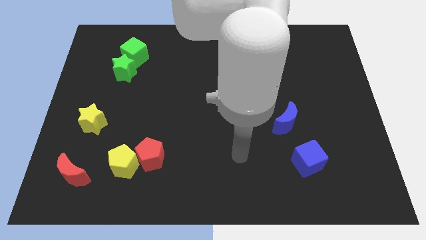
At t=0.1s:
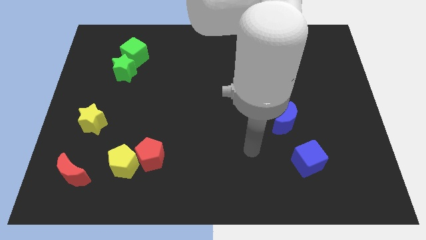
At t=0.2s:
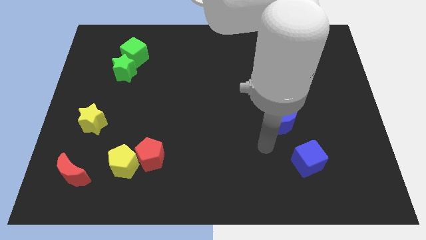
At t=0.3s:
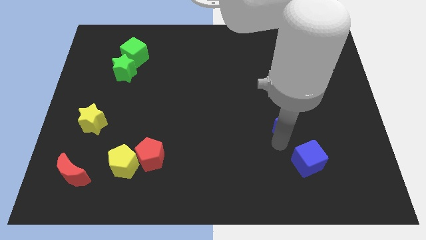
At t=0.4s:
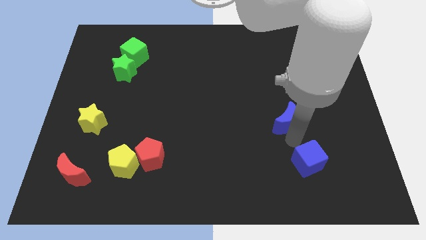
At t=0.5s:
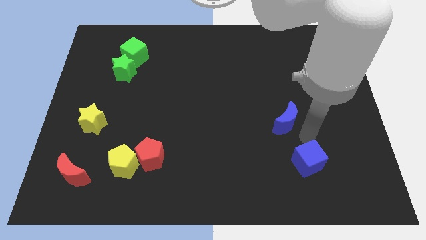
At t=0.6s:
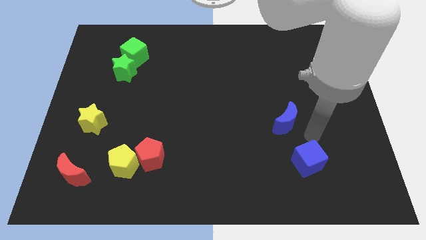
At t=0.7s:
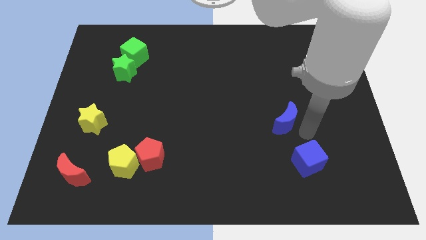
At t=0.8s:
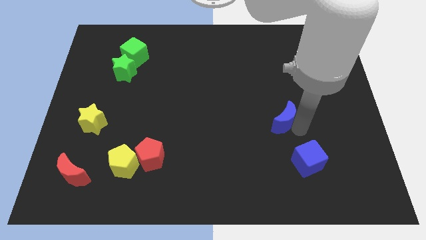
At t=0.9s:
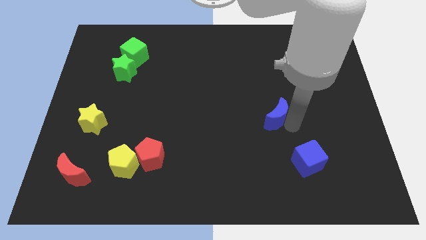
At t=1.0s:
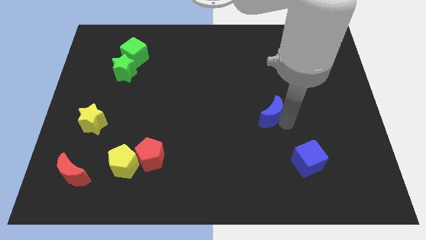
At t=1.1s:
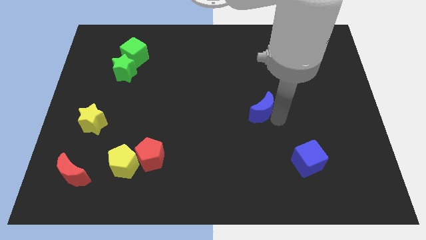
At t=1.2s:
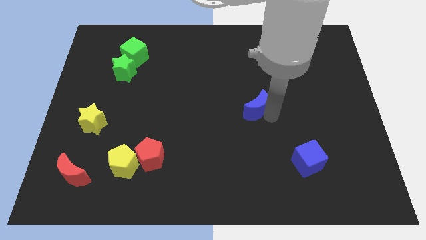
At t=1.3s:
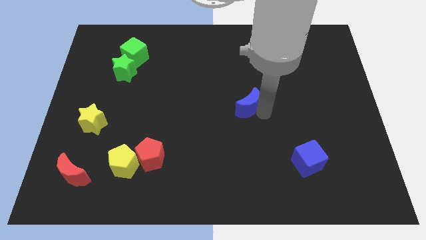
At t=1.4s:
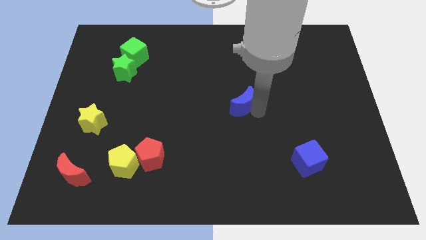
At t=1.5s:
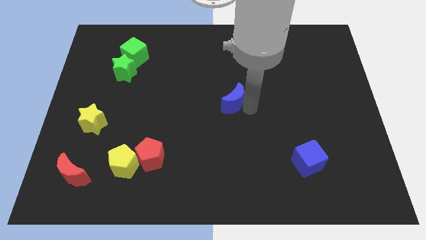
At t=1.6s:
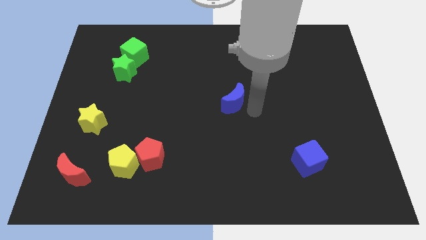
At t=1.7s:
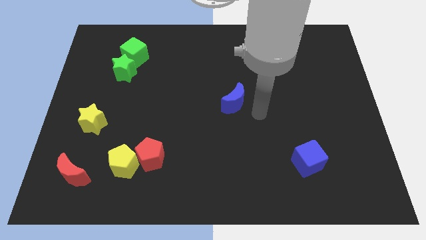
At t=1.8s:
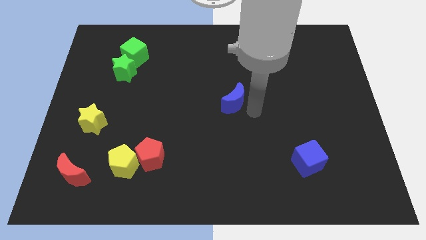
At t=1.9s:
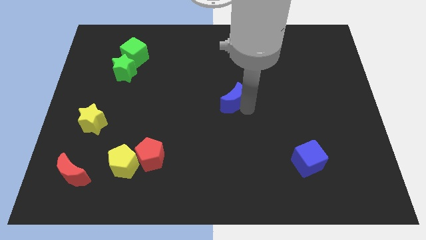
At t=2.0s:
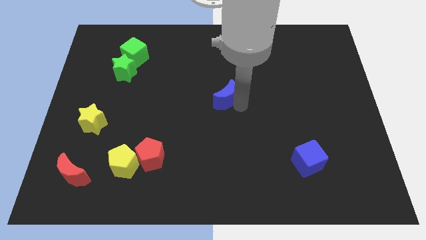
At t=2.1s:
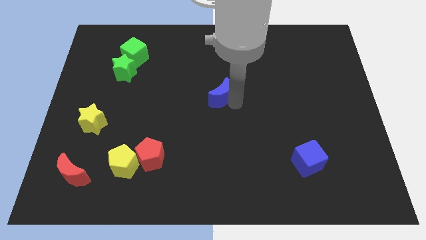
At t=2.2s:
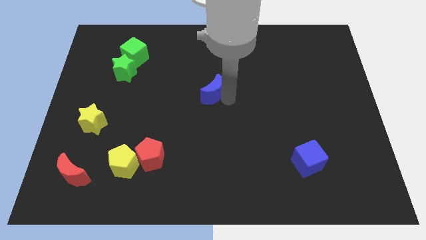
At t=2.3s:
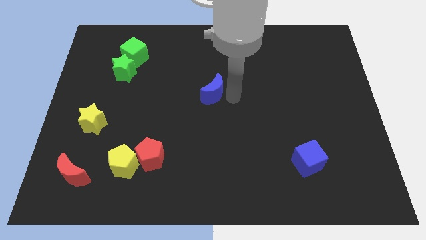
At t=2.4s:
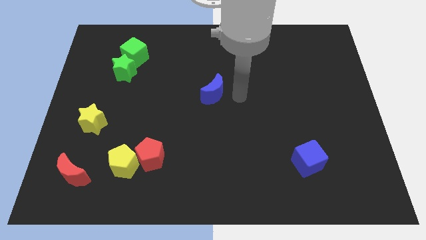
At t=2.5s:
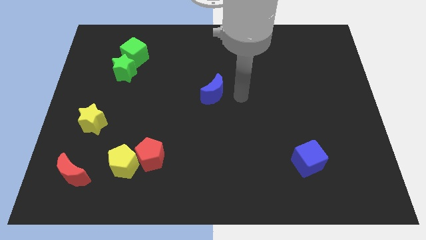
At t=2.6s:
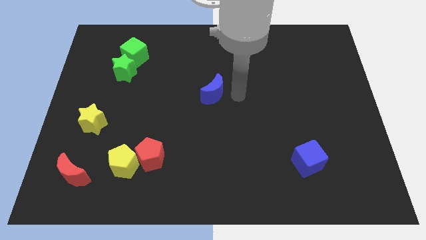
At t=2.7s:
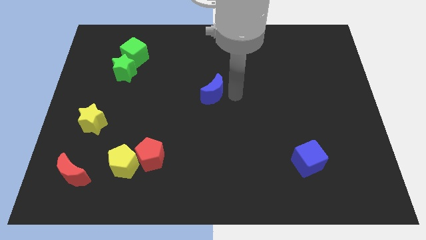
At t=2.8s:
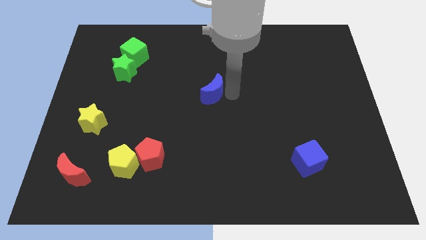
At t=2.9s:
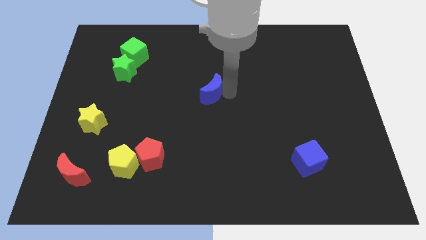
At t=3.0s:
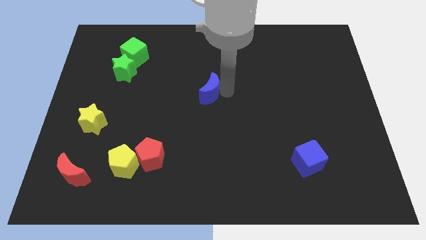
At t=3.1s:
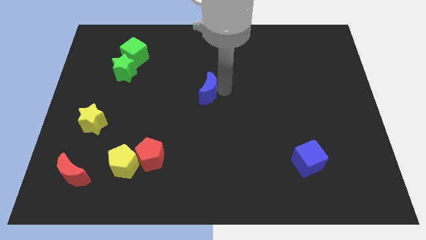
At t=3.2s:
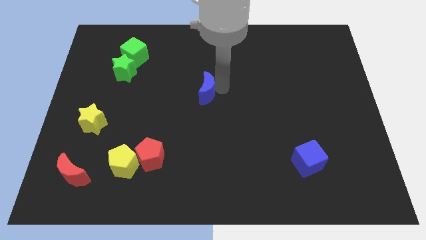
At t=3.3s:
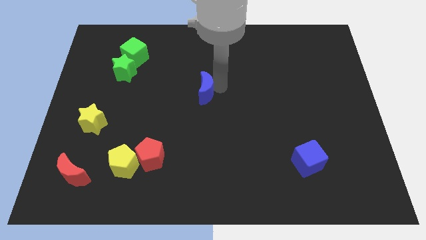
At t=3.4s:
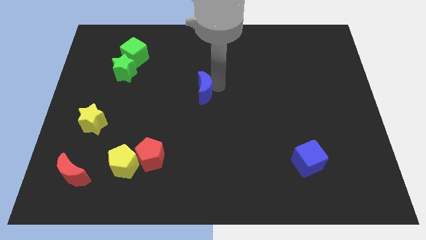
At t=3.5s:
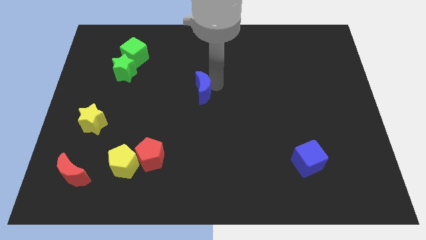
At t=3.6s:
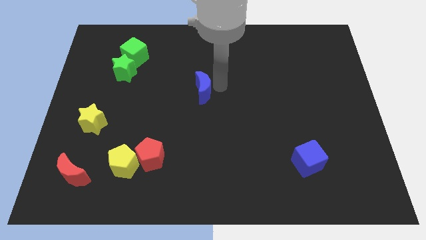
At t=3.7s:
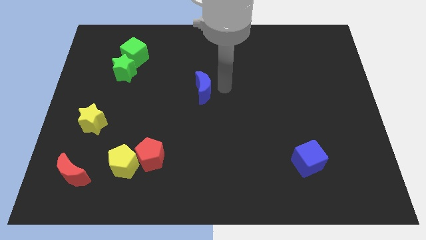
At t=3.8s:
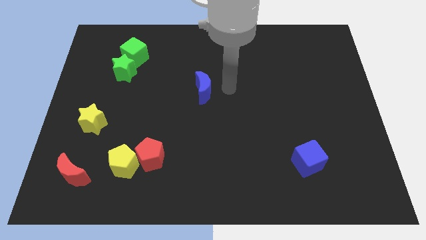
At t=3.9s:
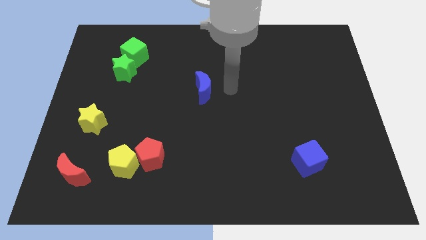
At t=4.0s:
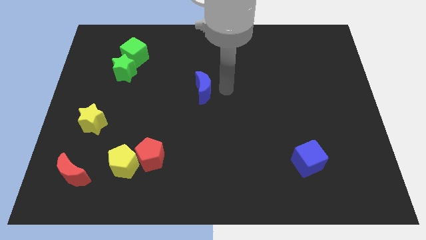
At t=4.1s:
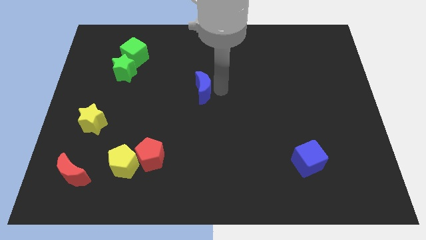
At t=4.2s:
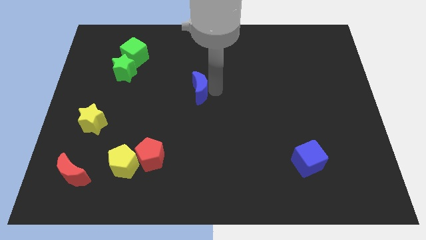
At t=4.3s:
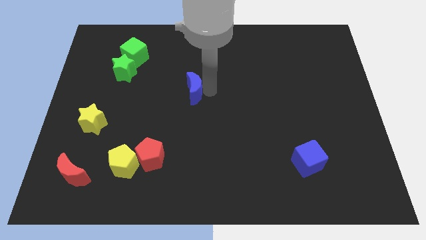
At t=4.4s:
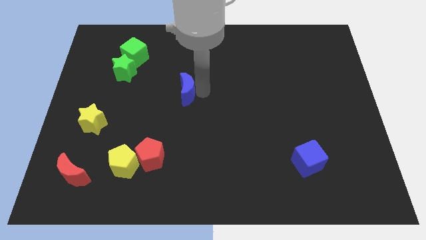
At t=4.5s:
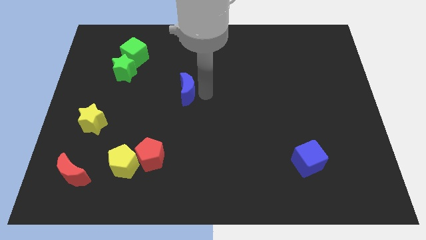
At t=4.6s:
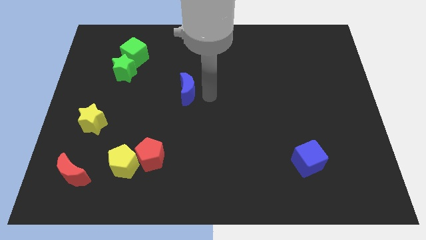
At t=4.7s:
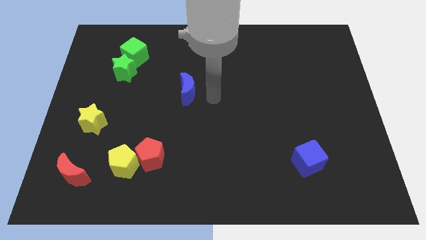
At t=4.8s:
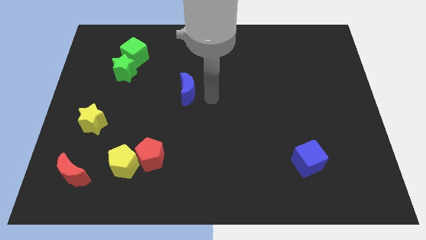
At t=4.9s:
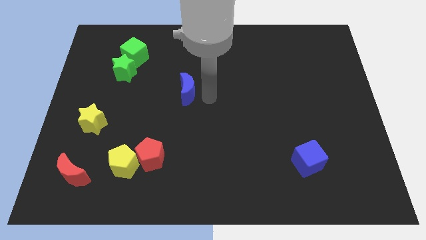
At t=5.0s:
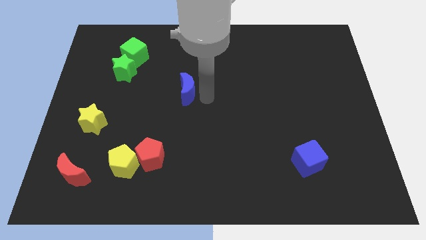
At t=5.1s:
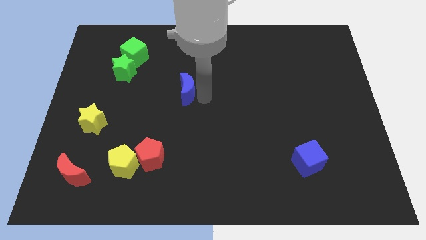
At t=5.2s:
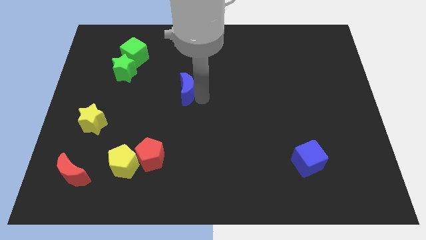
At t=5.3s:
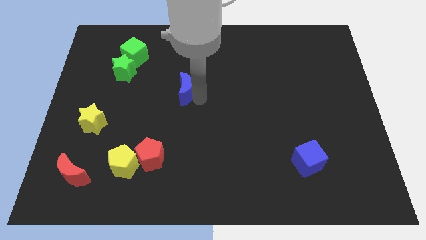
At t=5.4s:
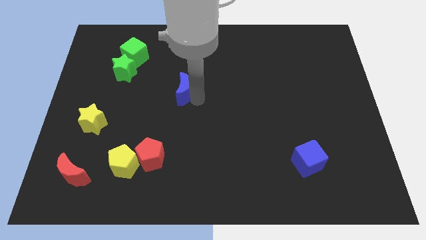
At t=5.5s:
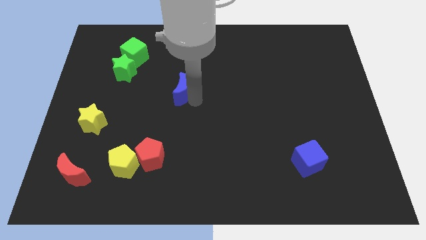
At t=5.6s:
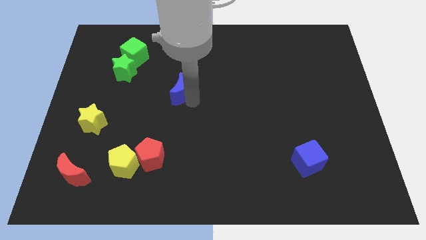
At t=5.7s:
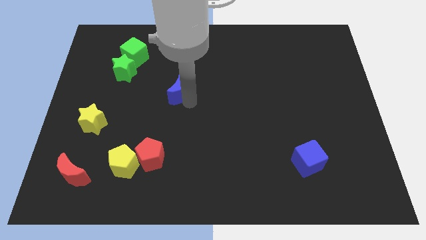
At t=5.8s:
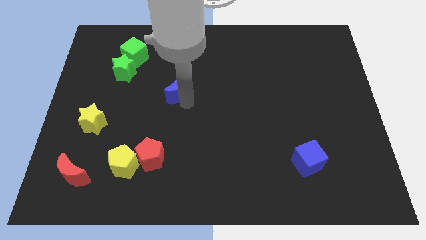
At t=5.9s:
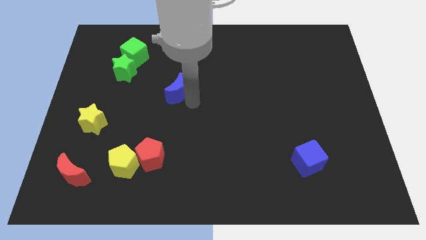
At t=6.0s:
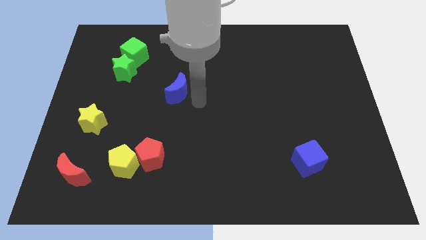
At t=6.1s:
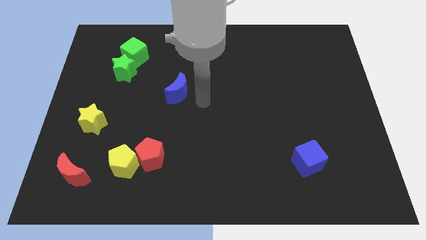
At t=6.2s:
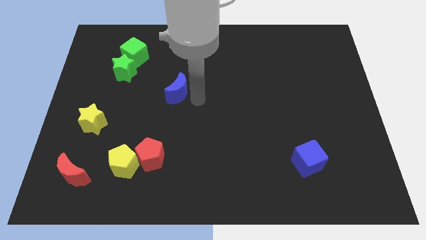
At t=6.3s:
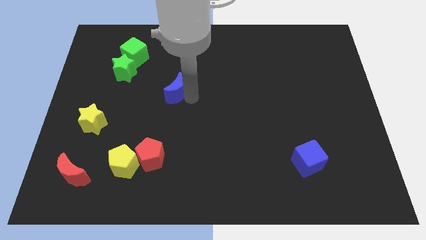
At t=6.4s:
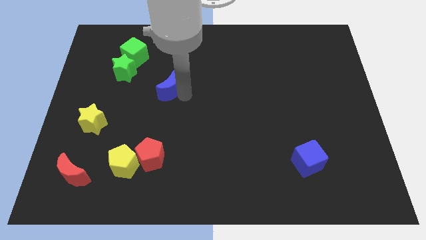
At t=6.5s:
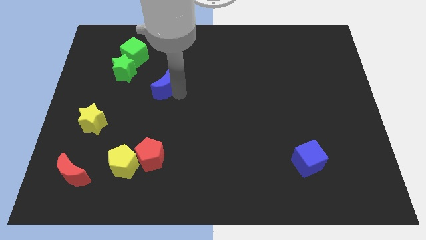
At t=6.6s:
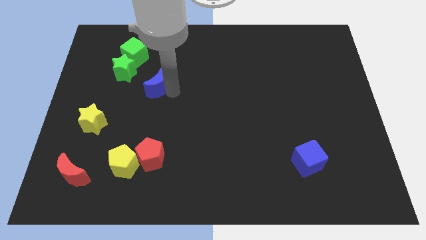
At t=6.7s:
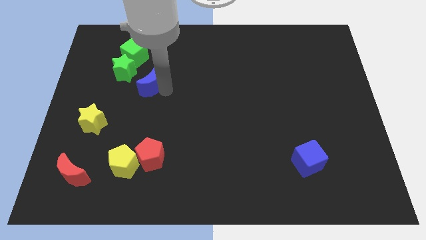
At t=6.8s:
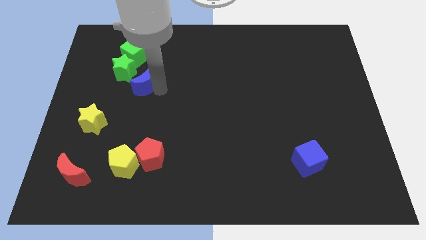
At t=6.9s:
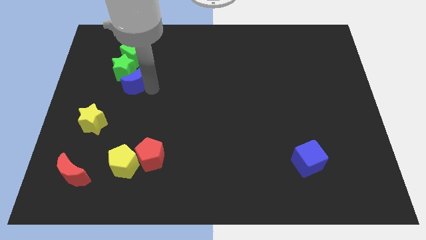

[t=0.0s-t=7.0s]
slide the blue moon close to the green star
